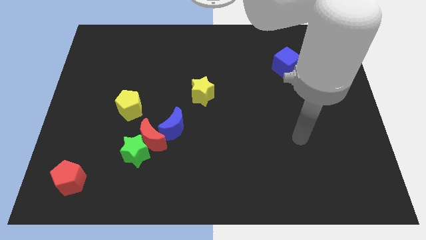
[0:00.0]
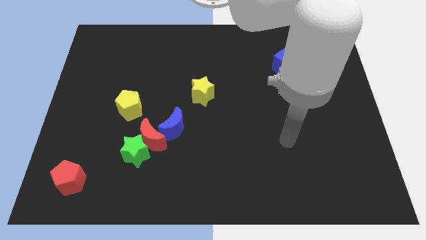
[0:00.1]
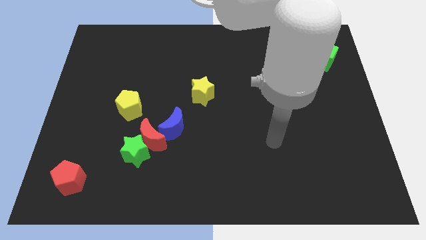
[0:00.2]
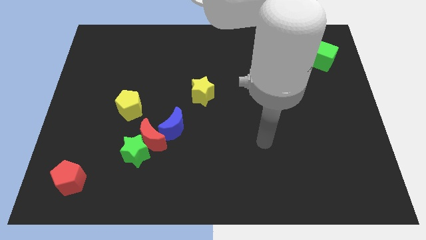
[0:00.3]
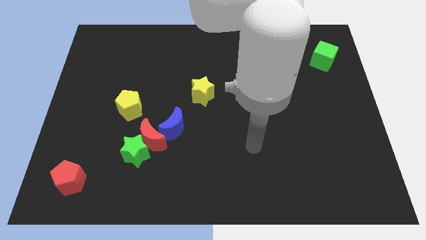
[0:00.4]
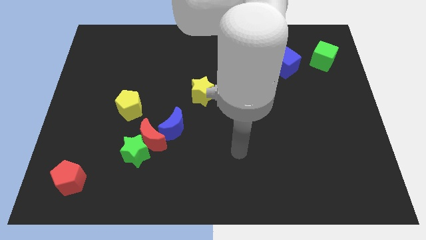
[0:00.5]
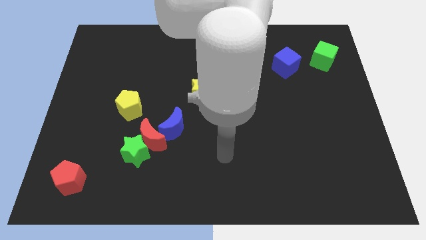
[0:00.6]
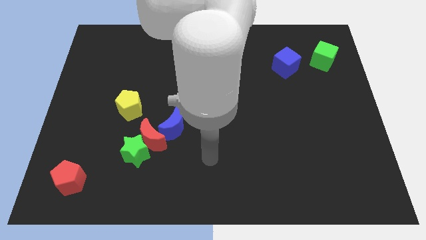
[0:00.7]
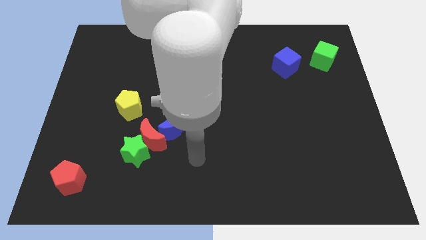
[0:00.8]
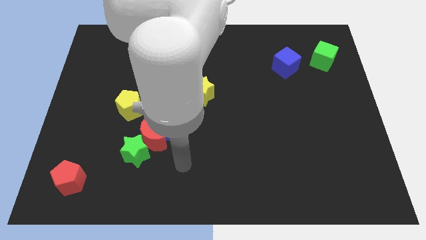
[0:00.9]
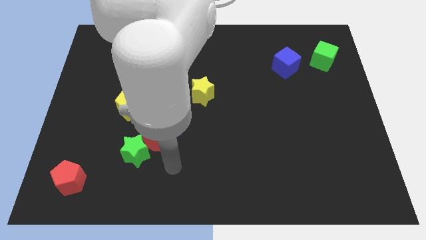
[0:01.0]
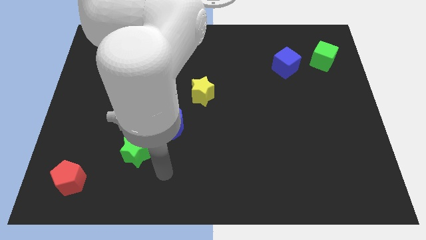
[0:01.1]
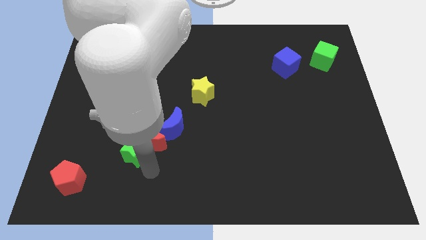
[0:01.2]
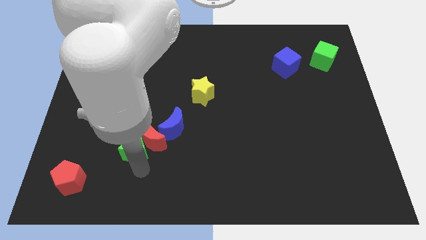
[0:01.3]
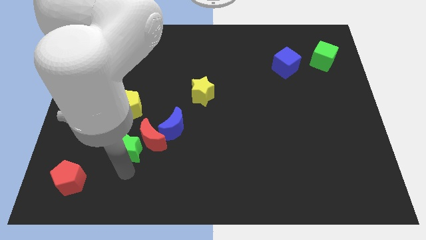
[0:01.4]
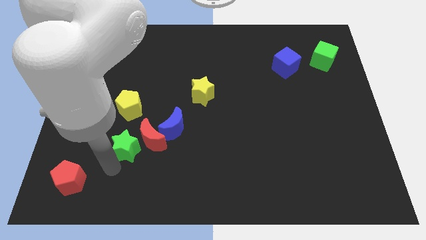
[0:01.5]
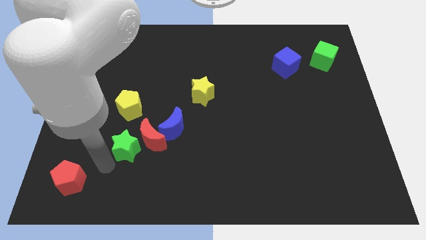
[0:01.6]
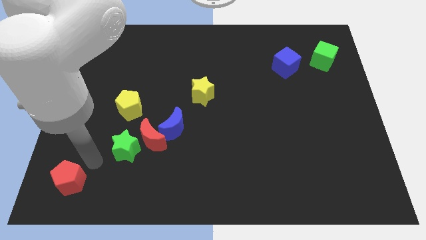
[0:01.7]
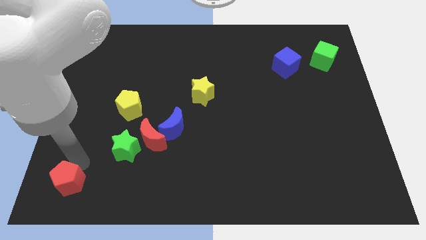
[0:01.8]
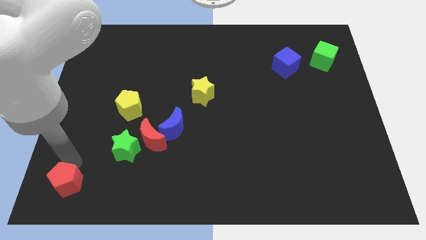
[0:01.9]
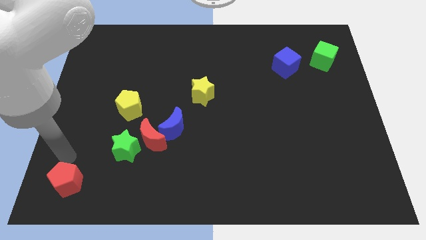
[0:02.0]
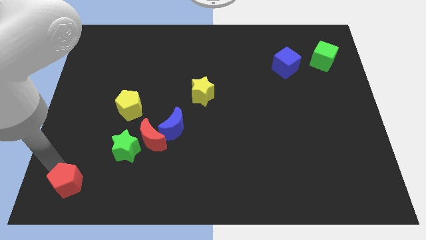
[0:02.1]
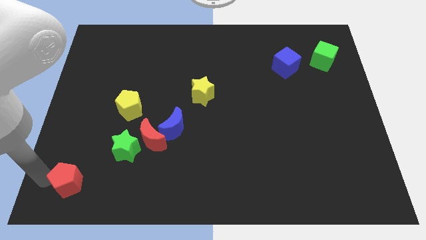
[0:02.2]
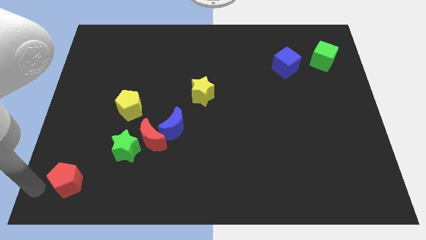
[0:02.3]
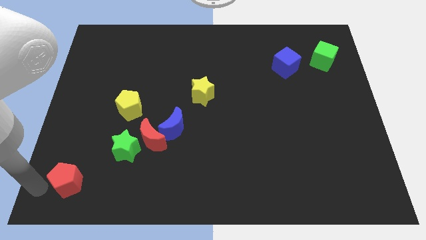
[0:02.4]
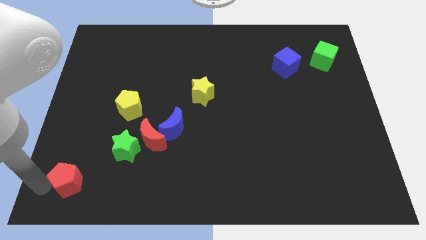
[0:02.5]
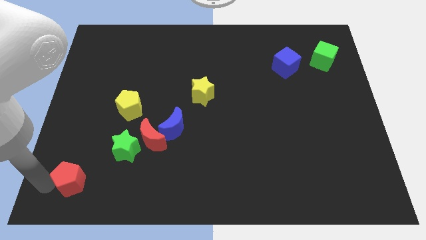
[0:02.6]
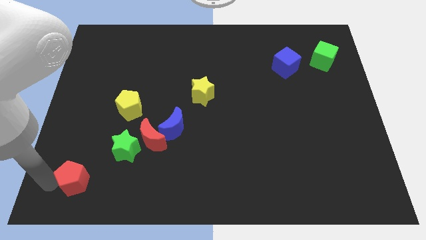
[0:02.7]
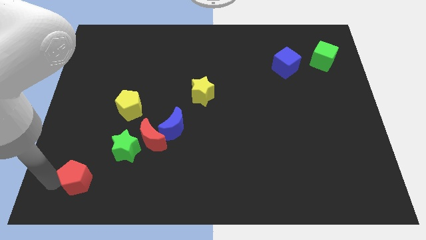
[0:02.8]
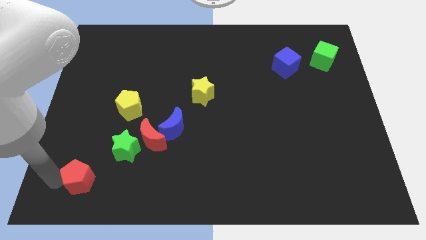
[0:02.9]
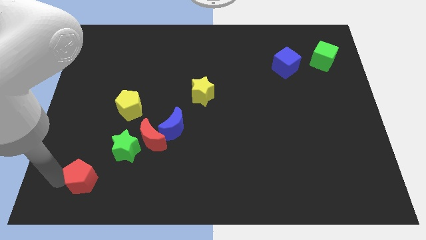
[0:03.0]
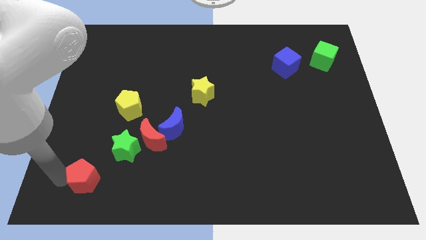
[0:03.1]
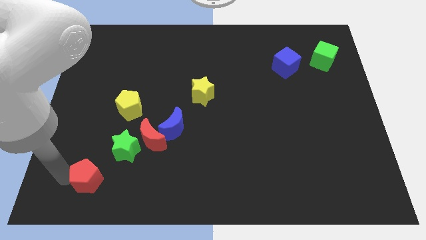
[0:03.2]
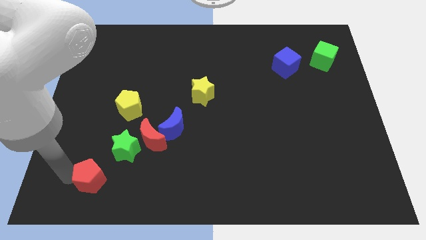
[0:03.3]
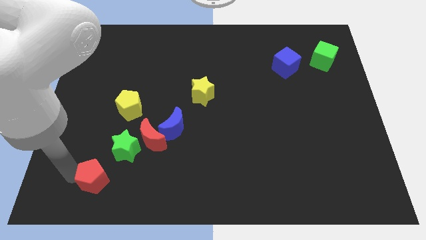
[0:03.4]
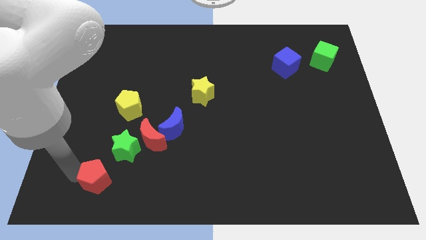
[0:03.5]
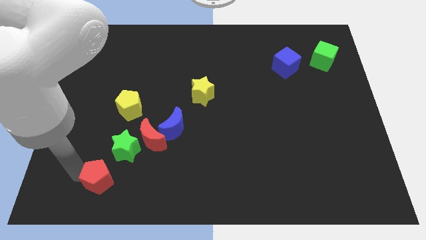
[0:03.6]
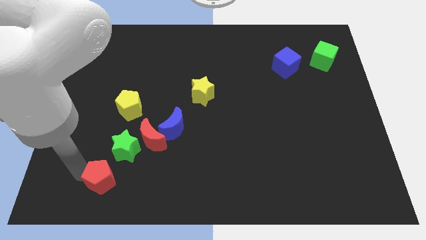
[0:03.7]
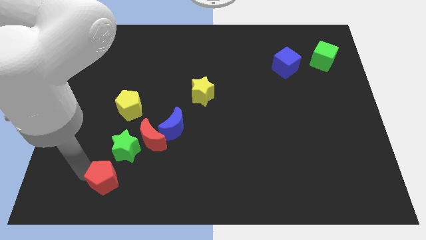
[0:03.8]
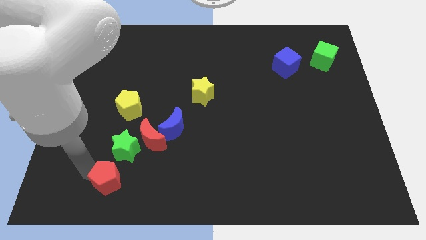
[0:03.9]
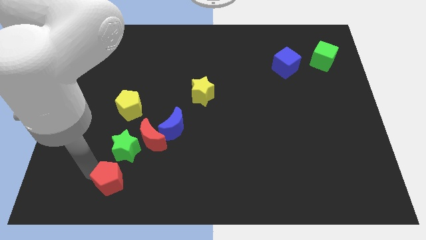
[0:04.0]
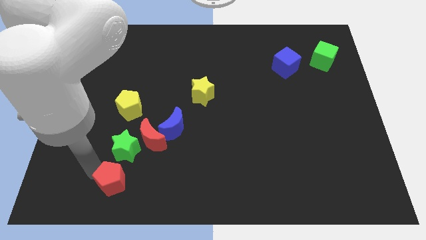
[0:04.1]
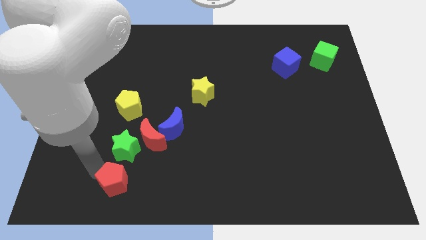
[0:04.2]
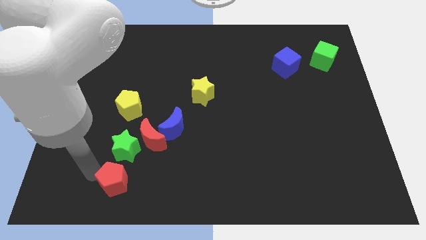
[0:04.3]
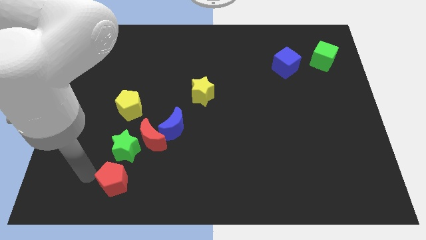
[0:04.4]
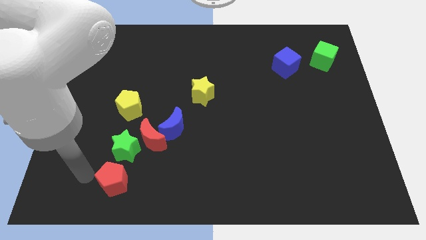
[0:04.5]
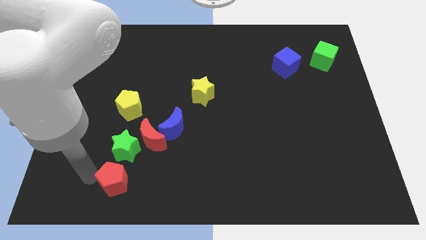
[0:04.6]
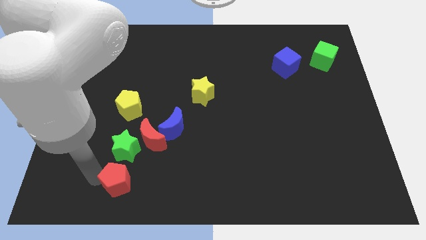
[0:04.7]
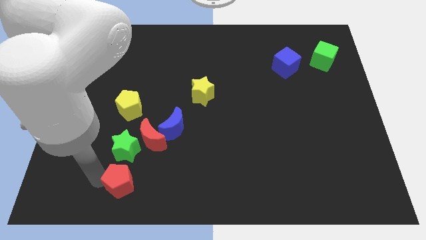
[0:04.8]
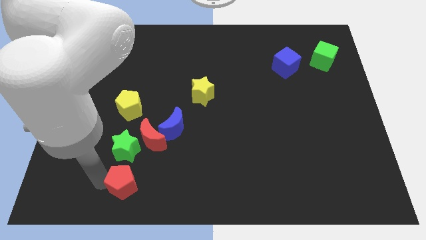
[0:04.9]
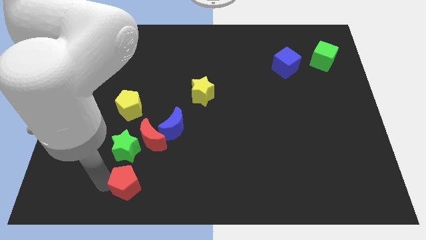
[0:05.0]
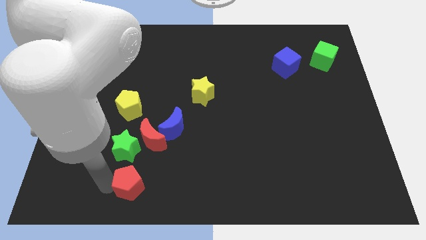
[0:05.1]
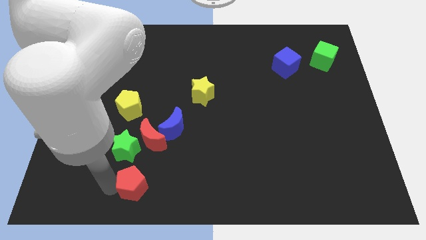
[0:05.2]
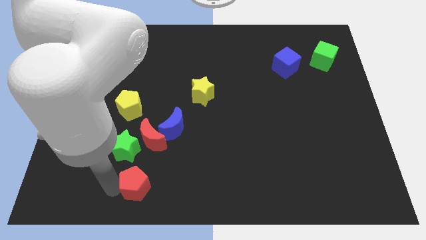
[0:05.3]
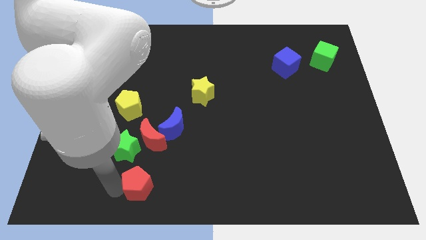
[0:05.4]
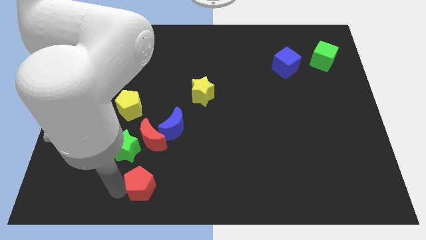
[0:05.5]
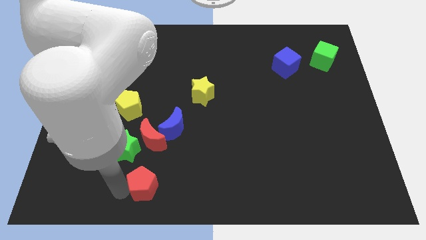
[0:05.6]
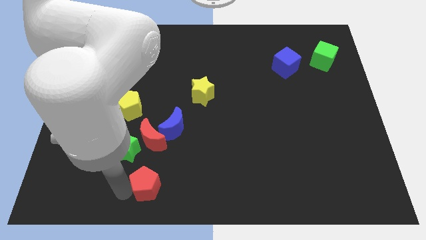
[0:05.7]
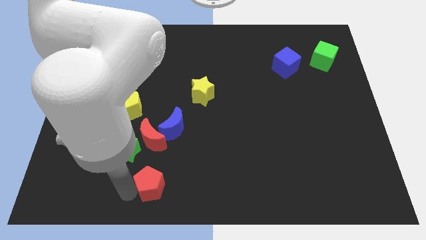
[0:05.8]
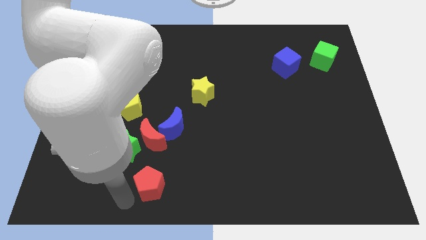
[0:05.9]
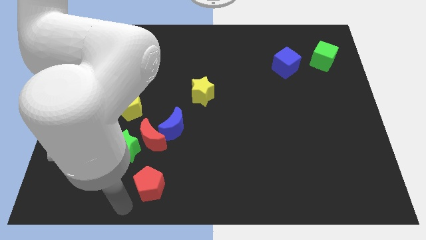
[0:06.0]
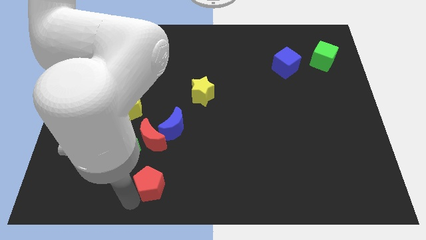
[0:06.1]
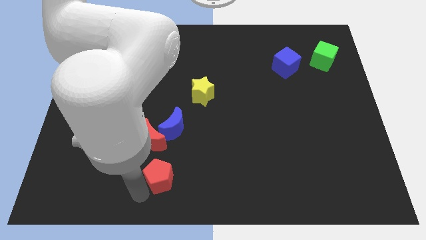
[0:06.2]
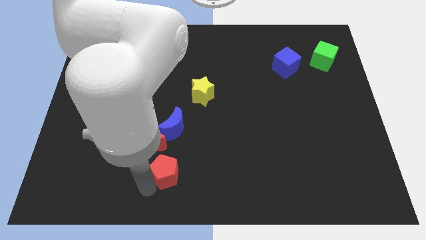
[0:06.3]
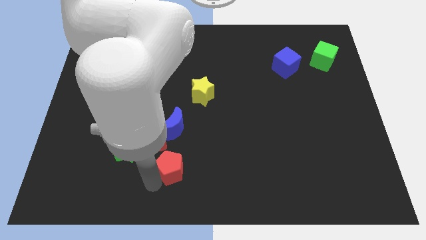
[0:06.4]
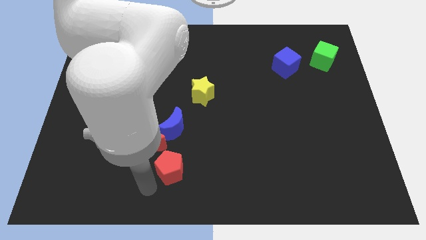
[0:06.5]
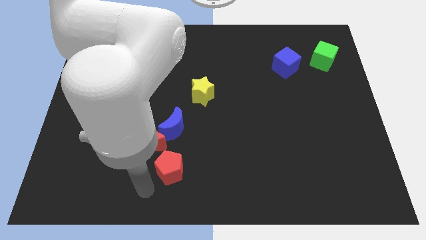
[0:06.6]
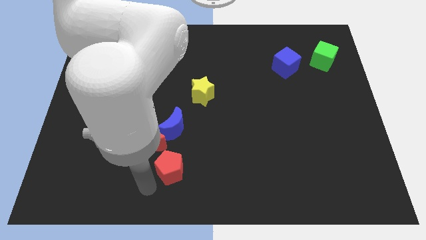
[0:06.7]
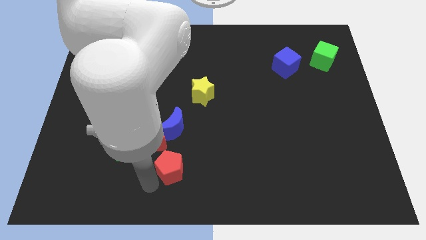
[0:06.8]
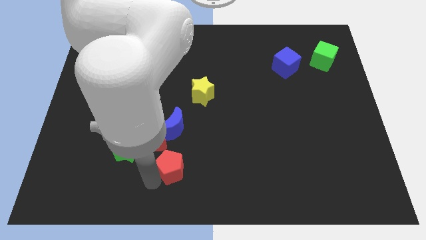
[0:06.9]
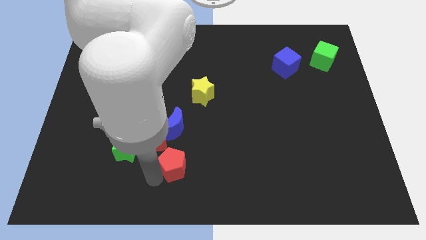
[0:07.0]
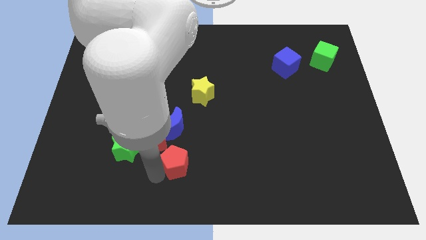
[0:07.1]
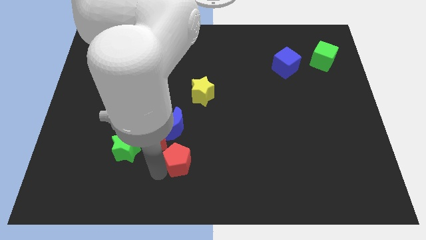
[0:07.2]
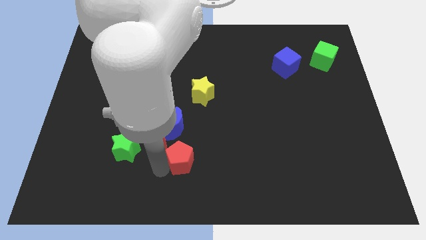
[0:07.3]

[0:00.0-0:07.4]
push the red pentagon diagonally down and to the right of the blue moon
